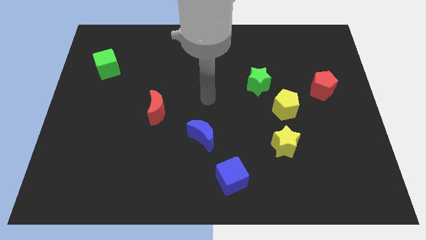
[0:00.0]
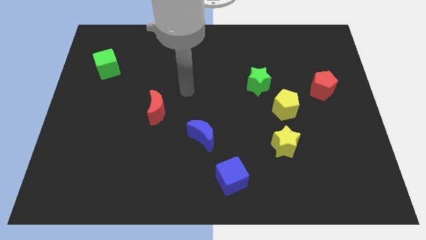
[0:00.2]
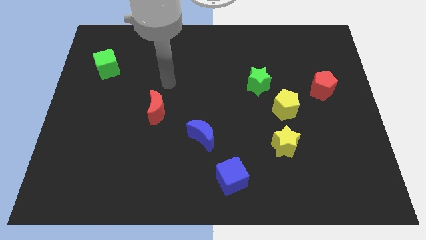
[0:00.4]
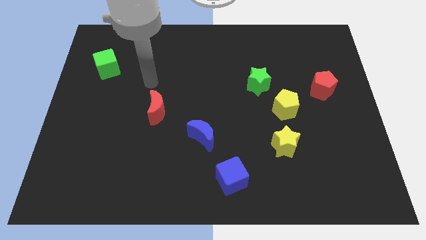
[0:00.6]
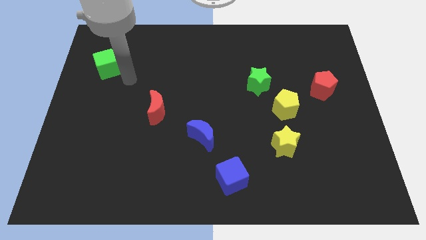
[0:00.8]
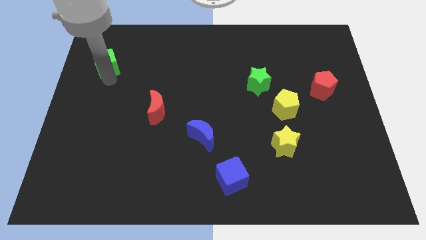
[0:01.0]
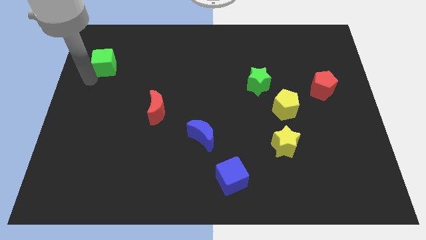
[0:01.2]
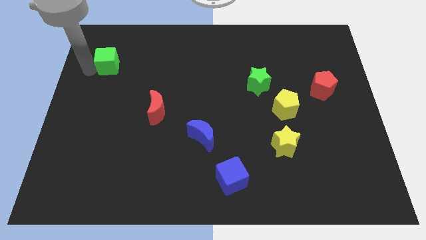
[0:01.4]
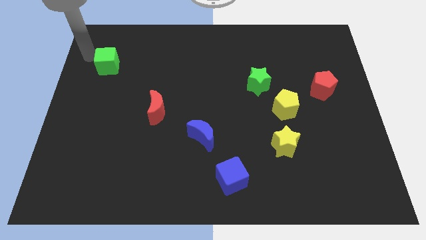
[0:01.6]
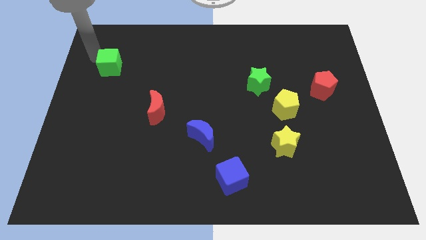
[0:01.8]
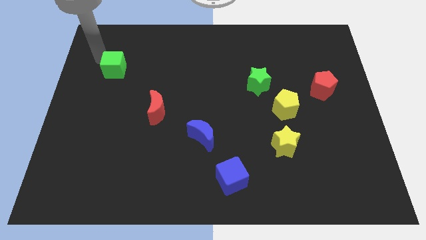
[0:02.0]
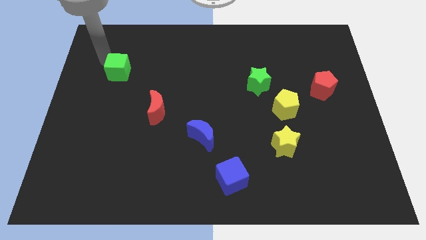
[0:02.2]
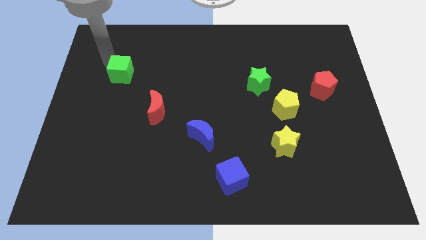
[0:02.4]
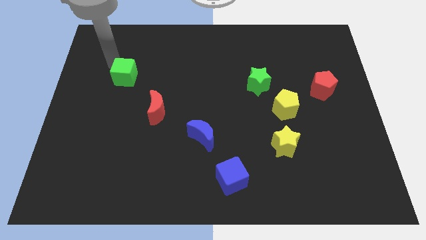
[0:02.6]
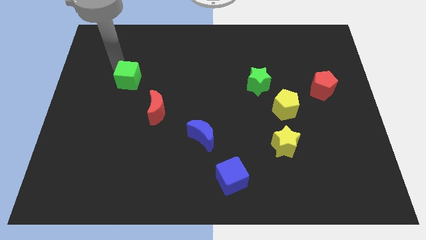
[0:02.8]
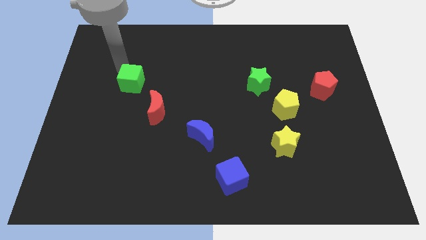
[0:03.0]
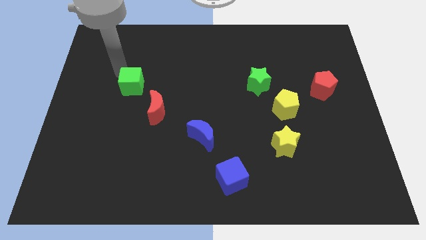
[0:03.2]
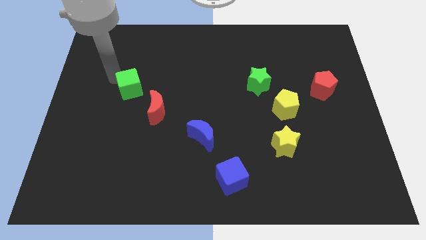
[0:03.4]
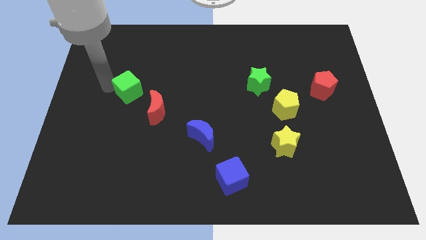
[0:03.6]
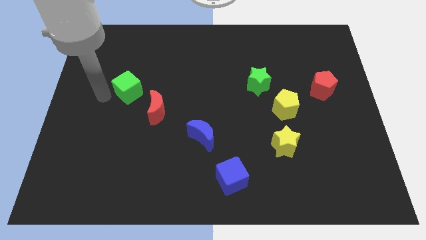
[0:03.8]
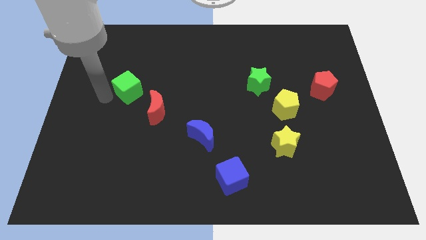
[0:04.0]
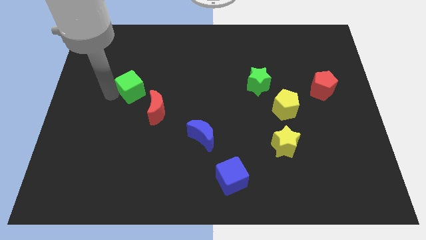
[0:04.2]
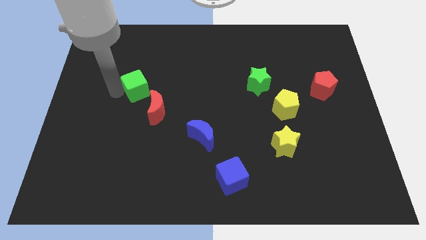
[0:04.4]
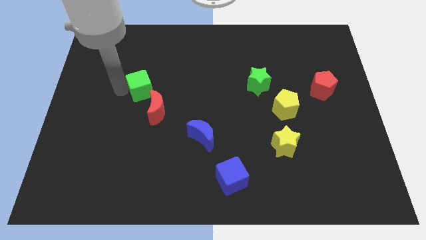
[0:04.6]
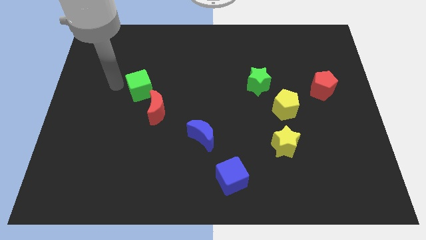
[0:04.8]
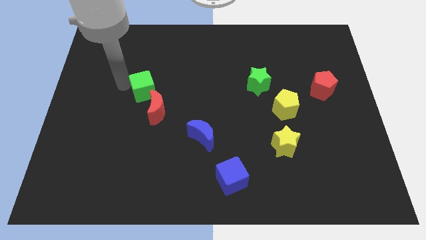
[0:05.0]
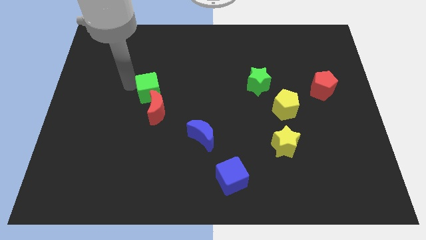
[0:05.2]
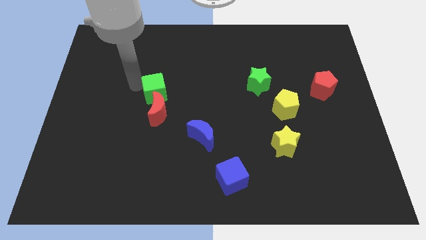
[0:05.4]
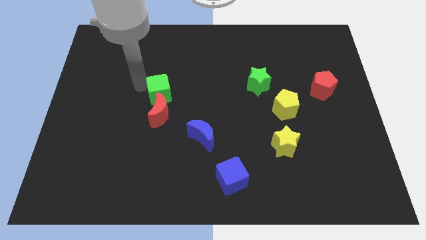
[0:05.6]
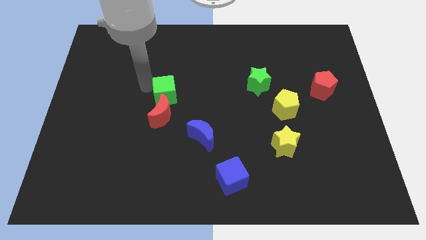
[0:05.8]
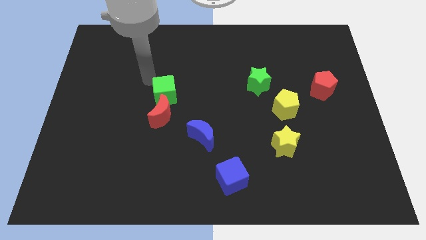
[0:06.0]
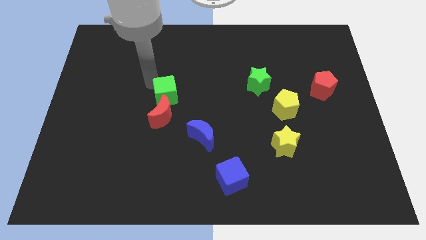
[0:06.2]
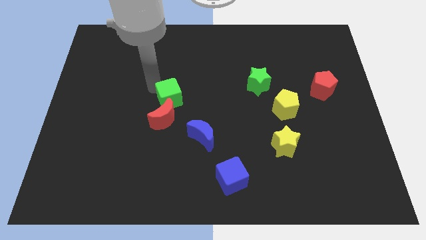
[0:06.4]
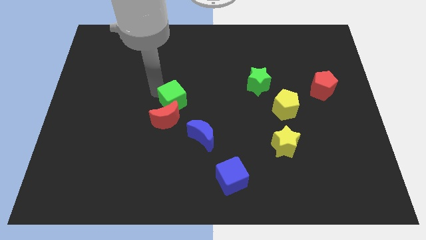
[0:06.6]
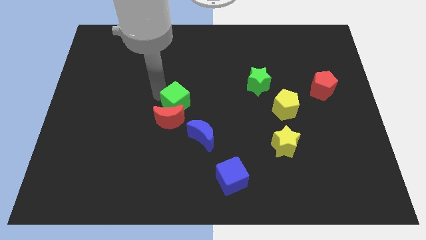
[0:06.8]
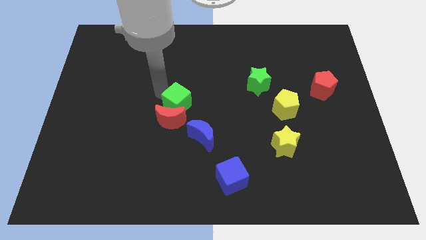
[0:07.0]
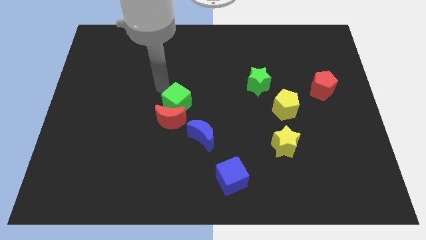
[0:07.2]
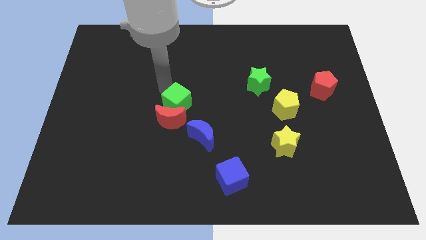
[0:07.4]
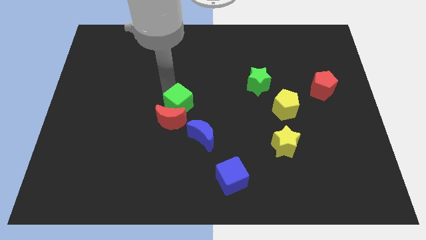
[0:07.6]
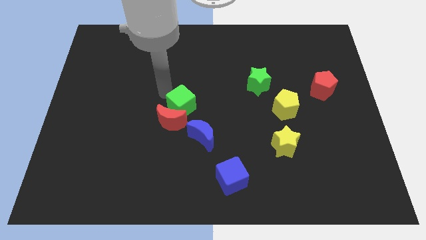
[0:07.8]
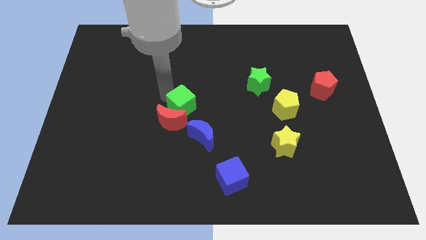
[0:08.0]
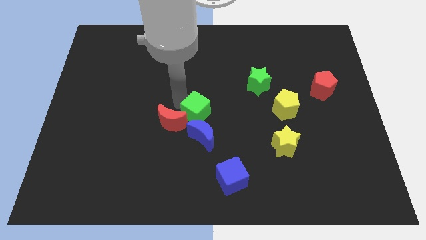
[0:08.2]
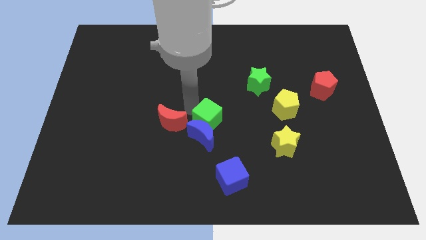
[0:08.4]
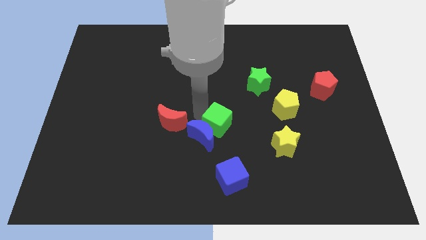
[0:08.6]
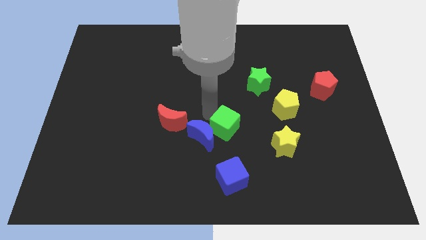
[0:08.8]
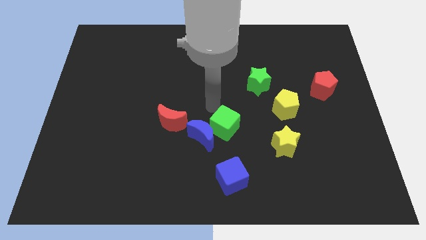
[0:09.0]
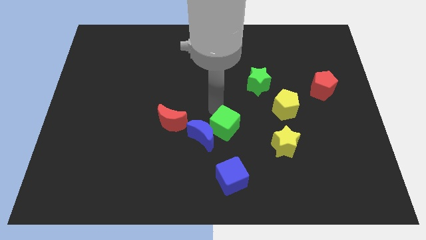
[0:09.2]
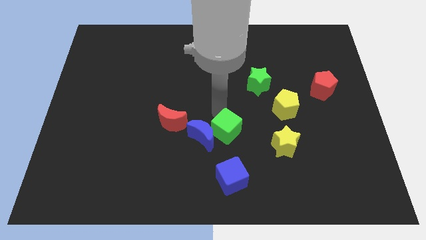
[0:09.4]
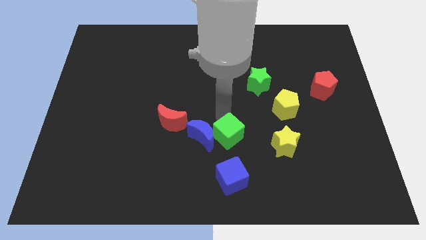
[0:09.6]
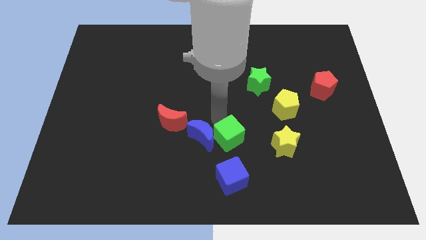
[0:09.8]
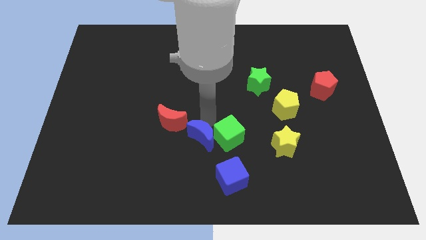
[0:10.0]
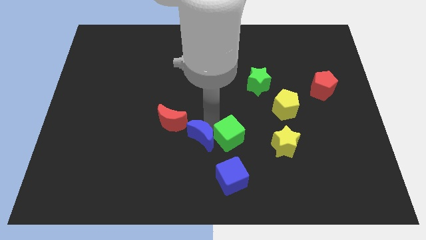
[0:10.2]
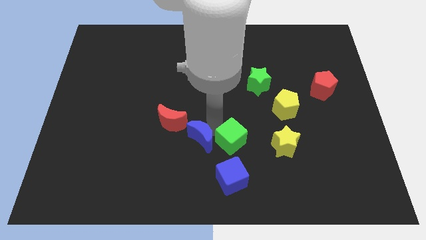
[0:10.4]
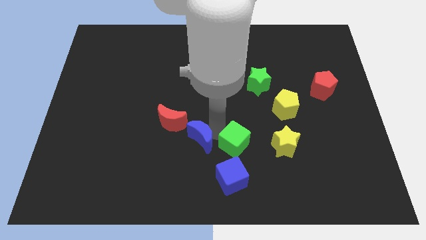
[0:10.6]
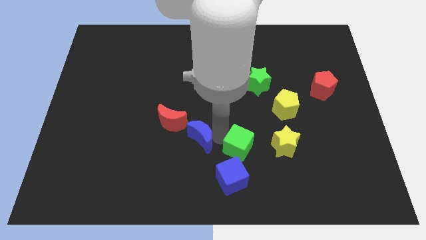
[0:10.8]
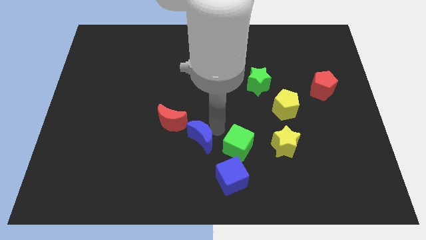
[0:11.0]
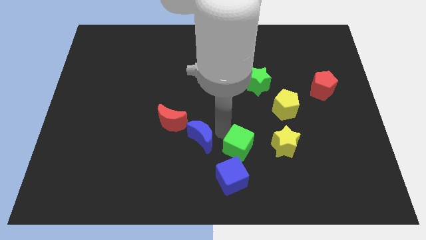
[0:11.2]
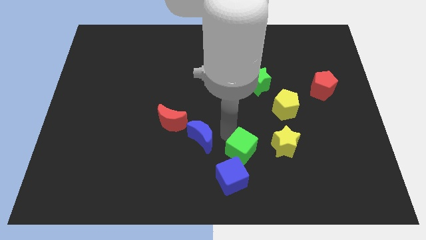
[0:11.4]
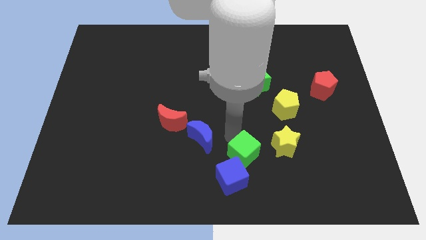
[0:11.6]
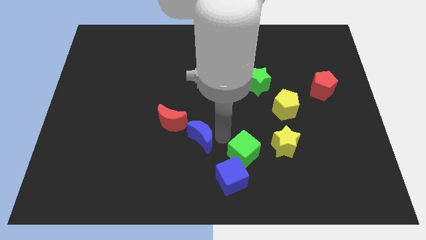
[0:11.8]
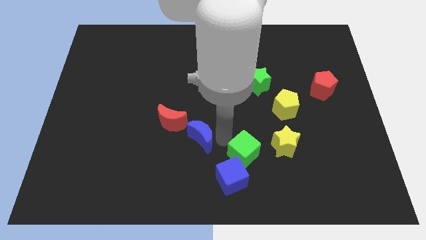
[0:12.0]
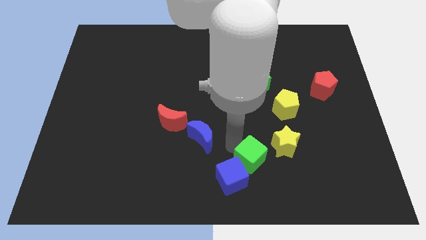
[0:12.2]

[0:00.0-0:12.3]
put the green cube right of the blue cube
